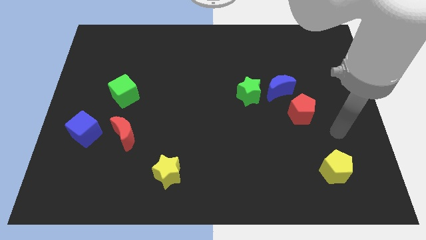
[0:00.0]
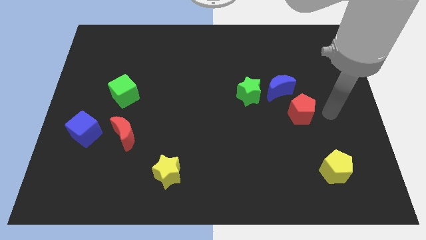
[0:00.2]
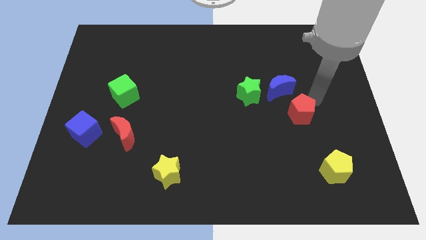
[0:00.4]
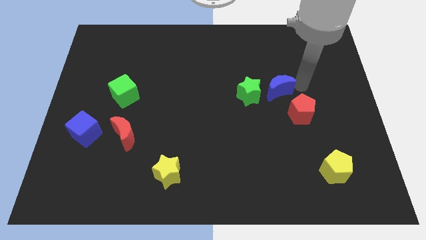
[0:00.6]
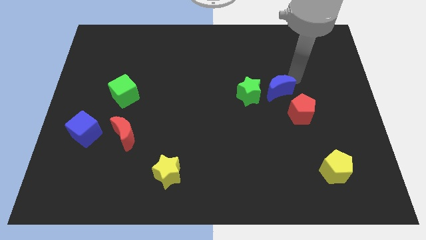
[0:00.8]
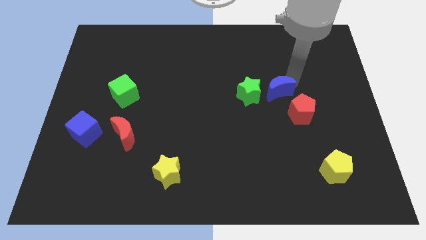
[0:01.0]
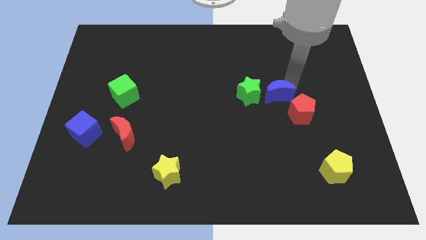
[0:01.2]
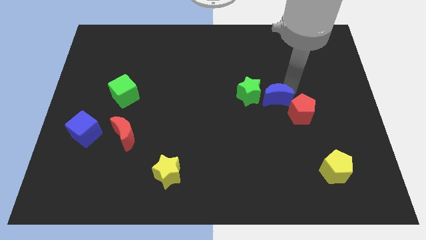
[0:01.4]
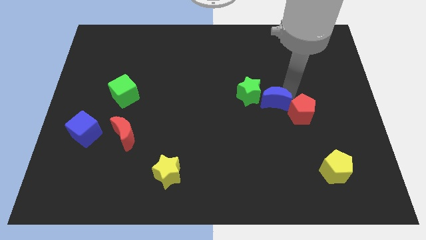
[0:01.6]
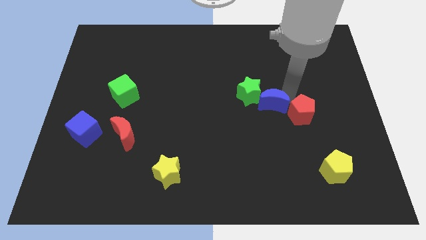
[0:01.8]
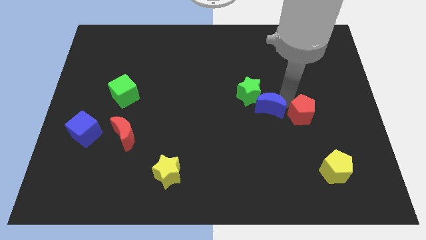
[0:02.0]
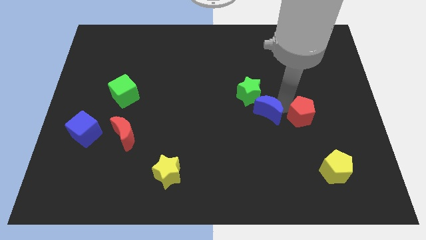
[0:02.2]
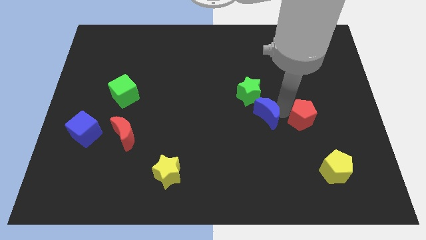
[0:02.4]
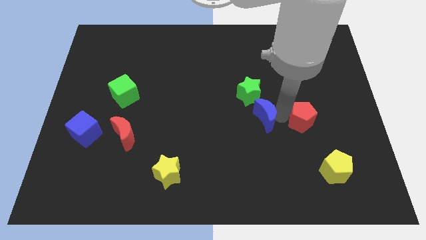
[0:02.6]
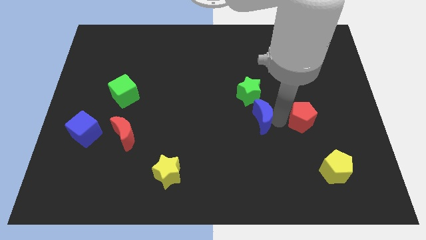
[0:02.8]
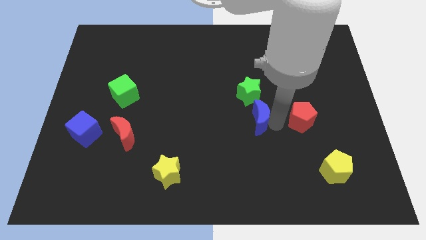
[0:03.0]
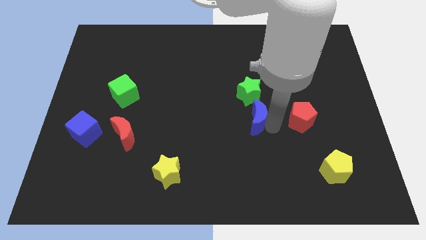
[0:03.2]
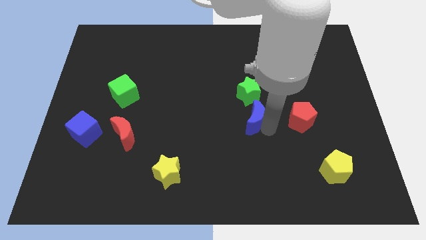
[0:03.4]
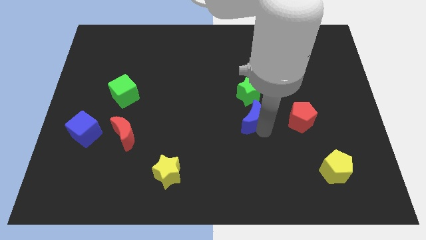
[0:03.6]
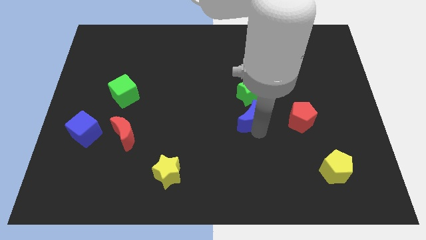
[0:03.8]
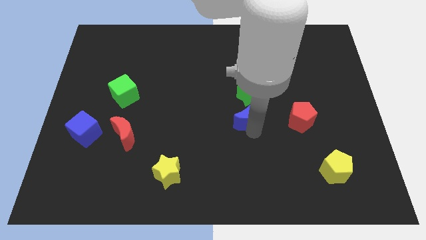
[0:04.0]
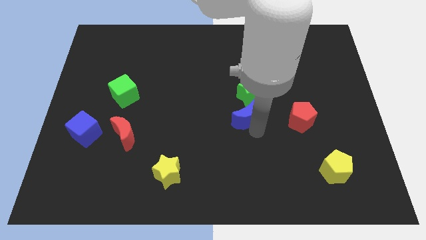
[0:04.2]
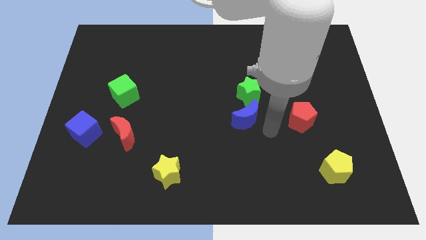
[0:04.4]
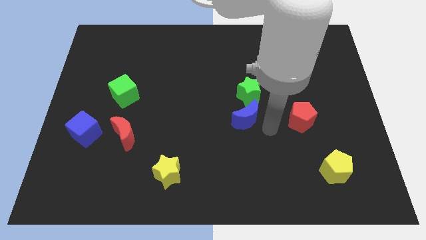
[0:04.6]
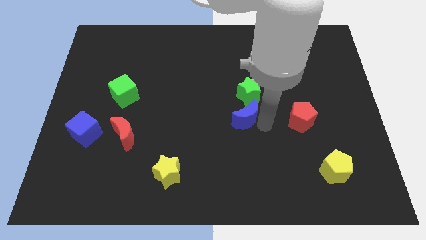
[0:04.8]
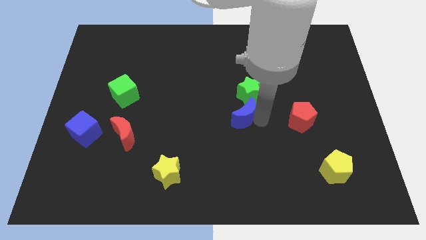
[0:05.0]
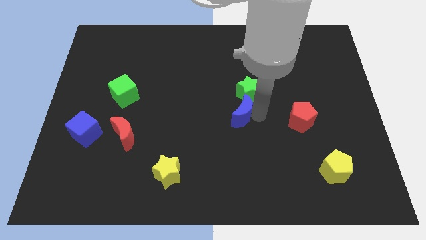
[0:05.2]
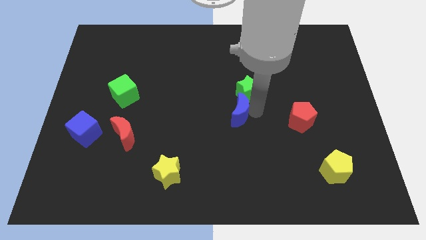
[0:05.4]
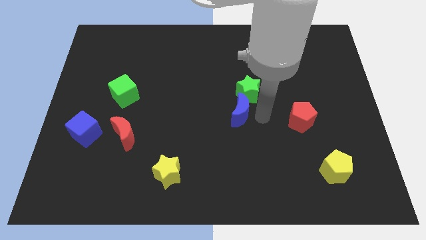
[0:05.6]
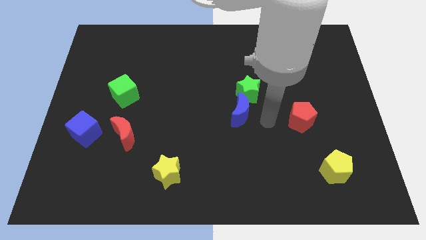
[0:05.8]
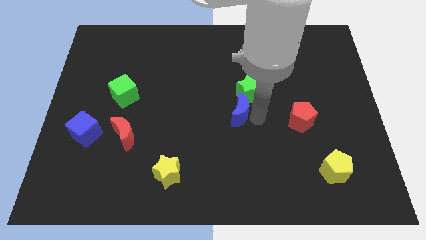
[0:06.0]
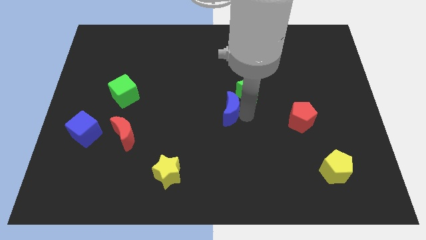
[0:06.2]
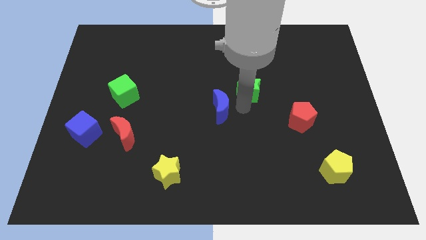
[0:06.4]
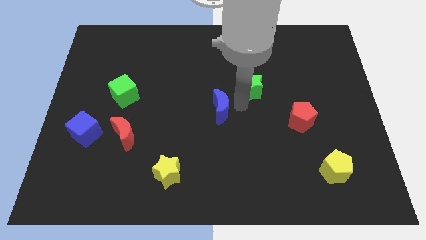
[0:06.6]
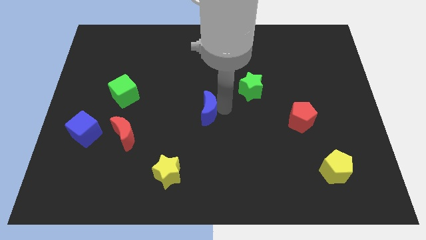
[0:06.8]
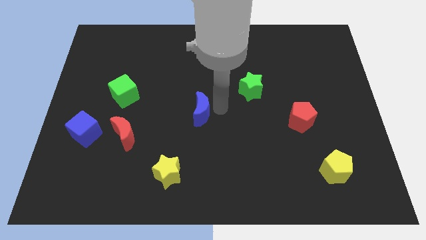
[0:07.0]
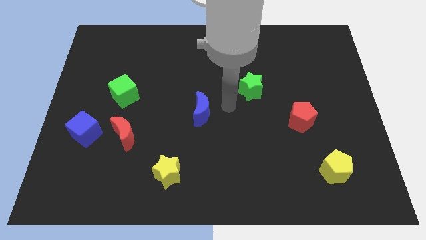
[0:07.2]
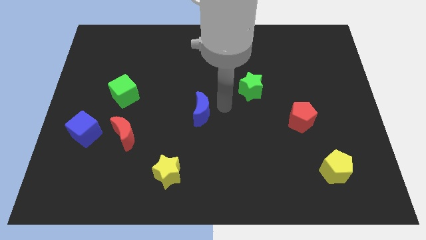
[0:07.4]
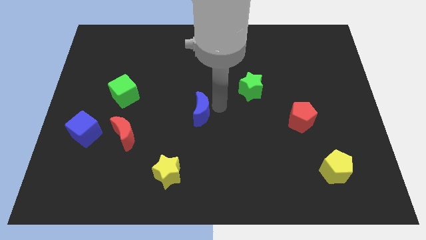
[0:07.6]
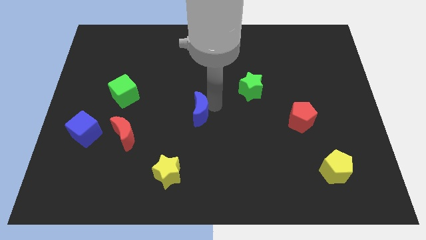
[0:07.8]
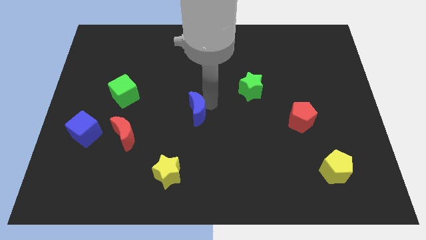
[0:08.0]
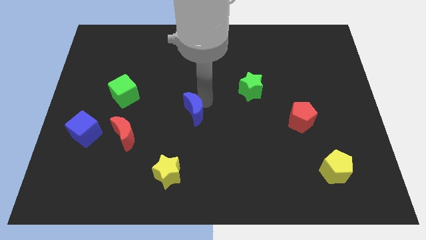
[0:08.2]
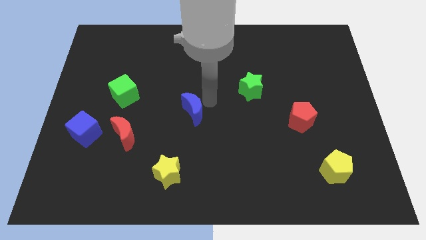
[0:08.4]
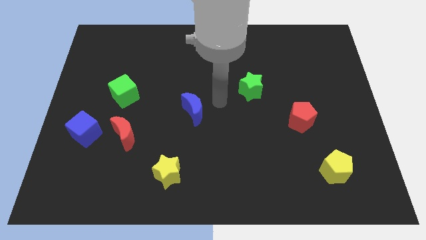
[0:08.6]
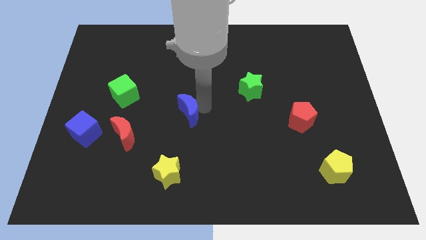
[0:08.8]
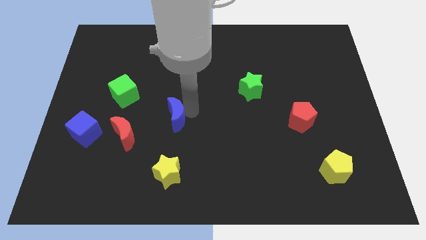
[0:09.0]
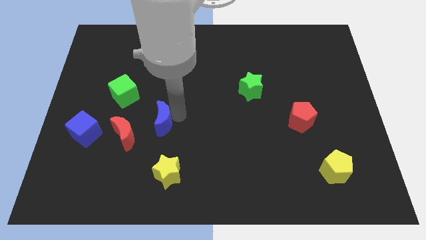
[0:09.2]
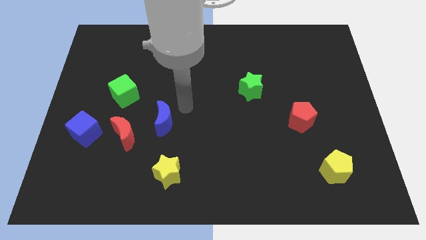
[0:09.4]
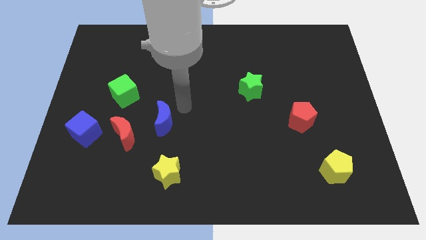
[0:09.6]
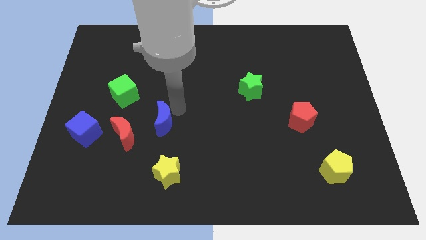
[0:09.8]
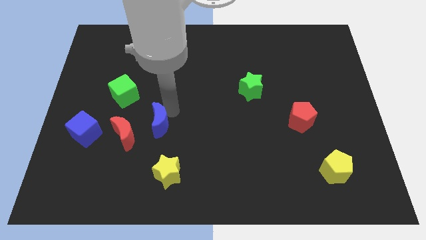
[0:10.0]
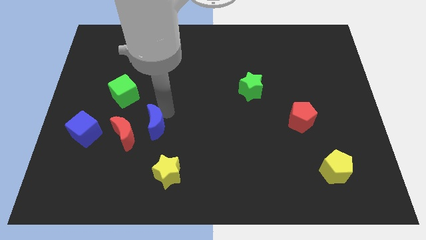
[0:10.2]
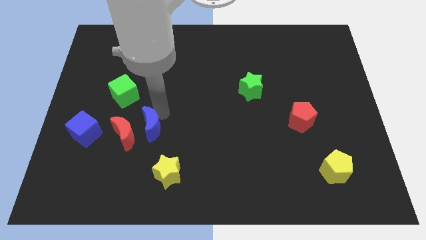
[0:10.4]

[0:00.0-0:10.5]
push the blue moon next to the red moon

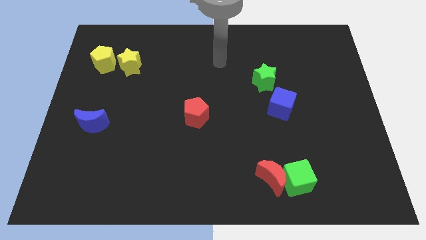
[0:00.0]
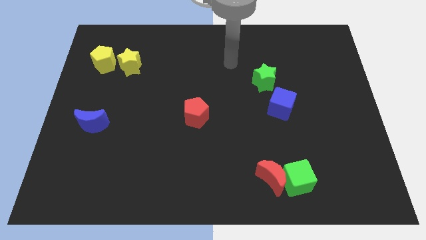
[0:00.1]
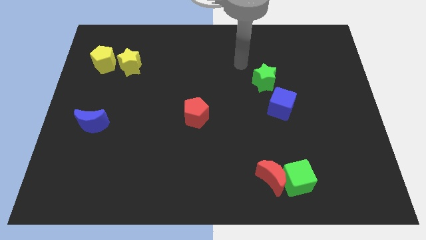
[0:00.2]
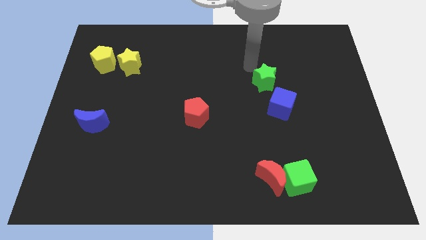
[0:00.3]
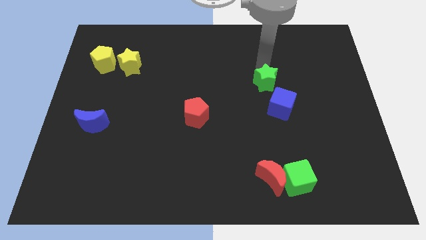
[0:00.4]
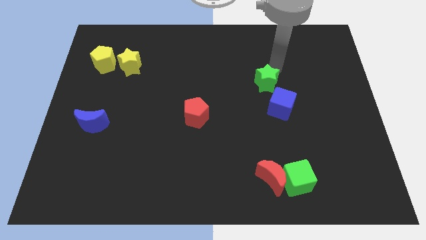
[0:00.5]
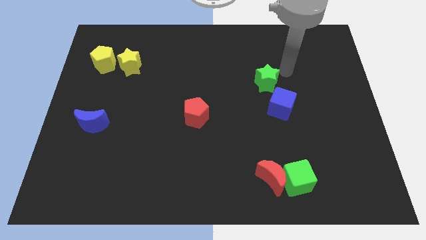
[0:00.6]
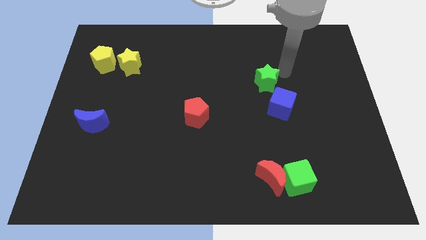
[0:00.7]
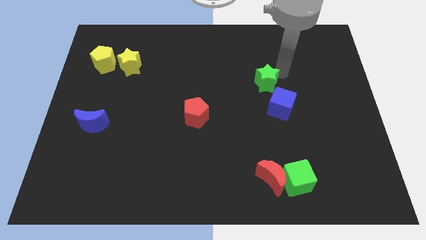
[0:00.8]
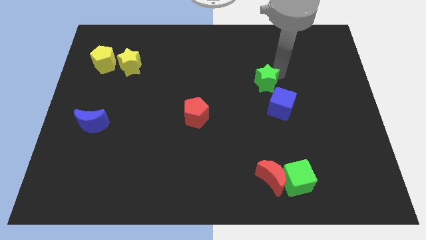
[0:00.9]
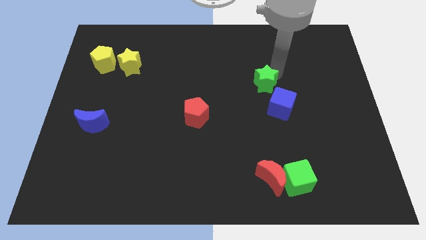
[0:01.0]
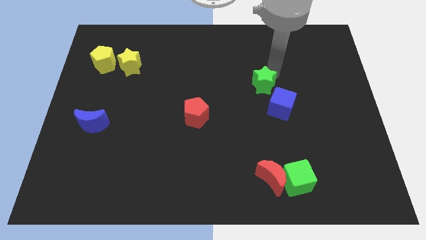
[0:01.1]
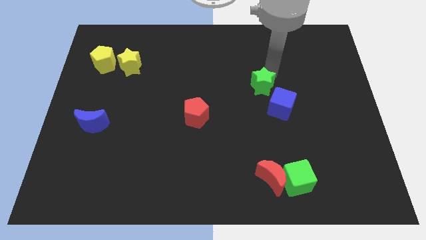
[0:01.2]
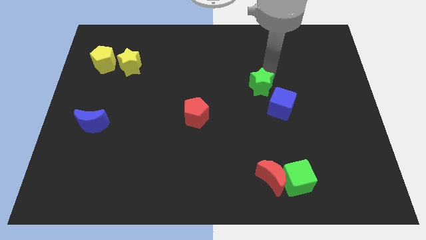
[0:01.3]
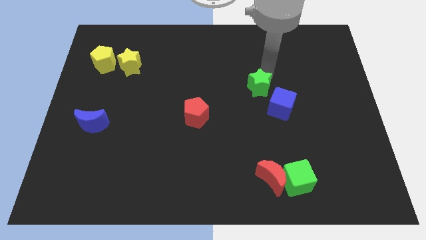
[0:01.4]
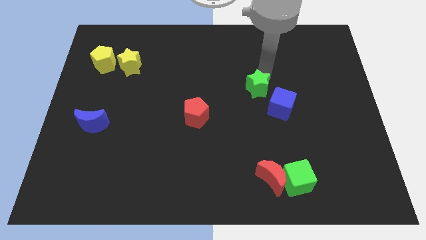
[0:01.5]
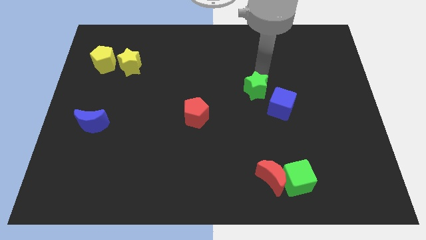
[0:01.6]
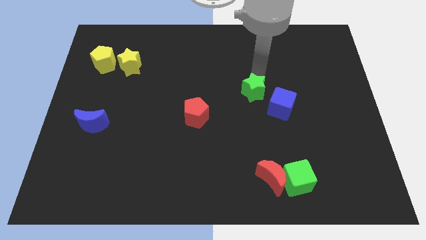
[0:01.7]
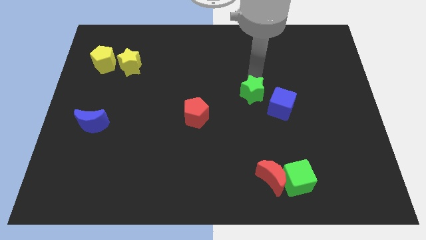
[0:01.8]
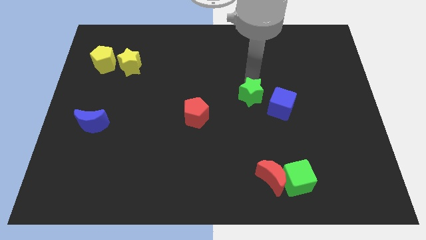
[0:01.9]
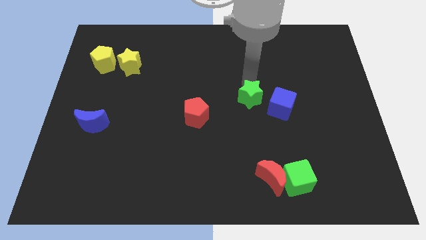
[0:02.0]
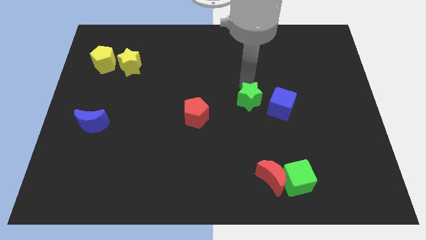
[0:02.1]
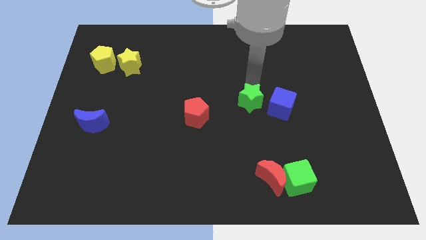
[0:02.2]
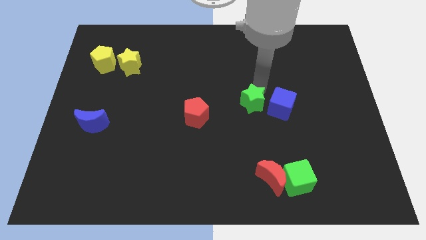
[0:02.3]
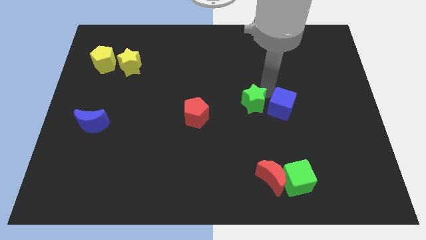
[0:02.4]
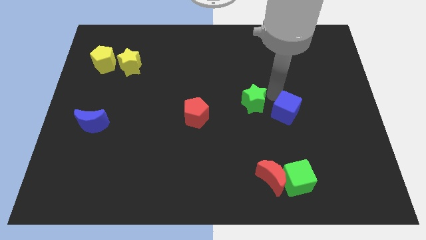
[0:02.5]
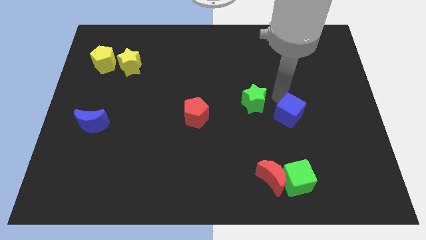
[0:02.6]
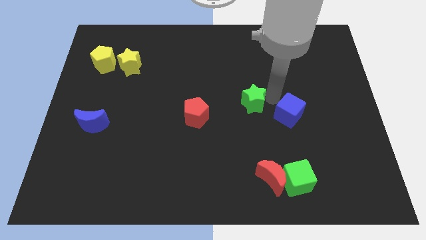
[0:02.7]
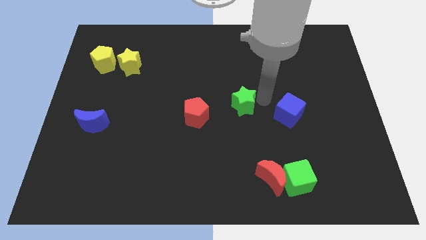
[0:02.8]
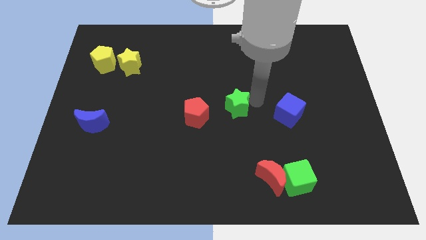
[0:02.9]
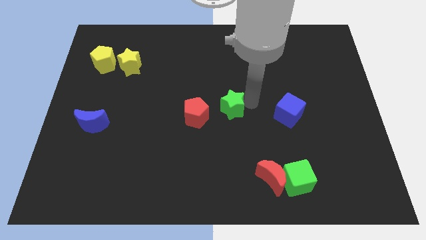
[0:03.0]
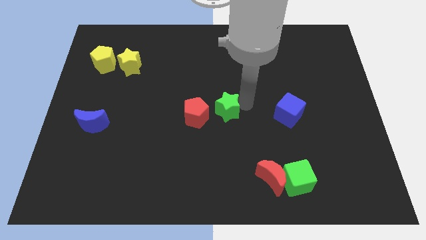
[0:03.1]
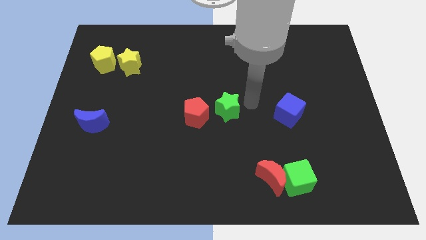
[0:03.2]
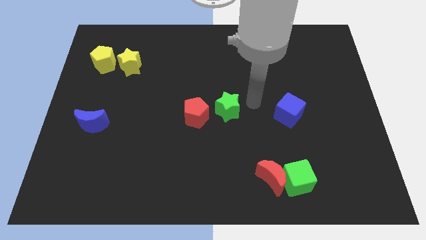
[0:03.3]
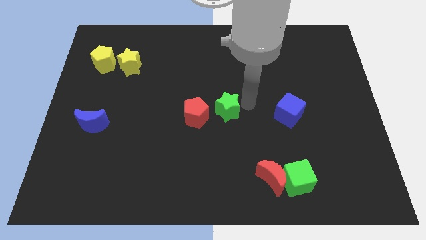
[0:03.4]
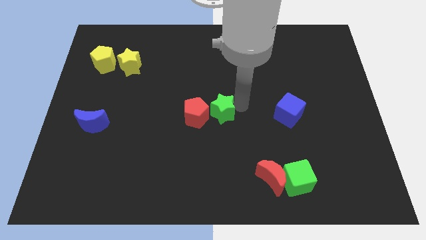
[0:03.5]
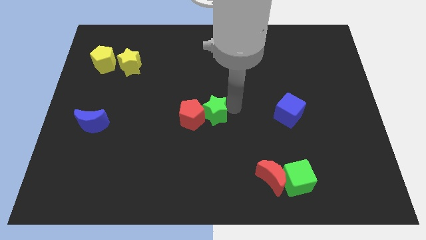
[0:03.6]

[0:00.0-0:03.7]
put the green star towards the red pentagon
